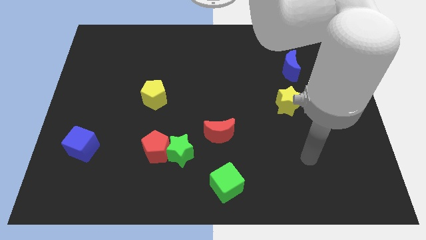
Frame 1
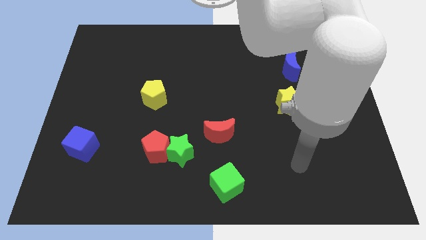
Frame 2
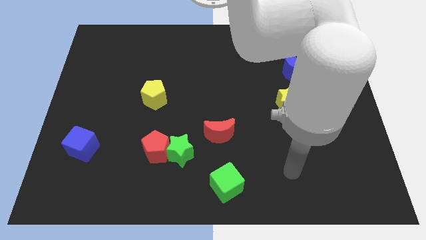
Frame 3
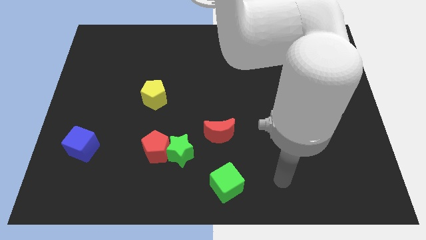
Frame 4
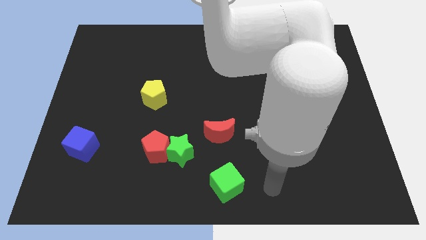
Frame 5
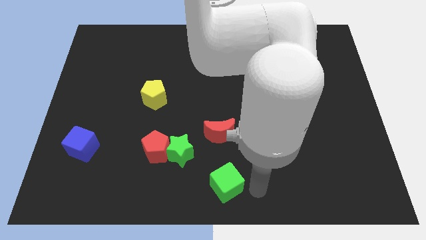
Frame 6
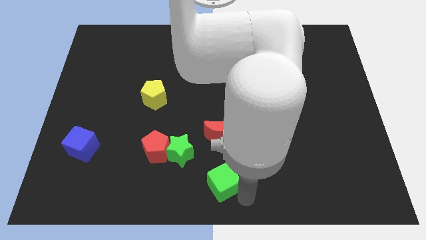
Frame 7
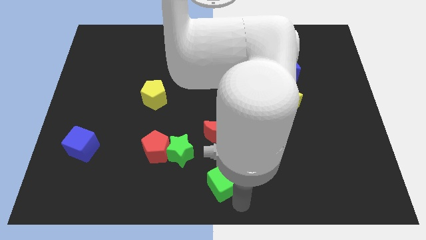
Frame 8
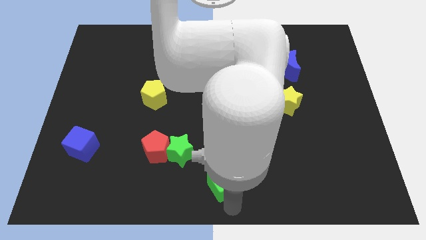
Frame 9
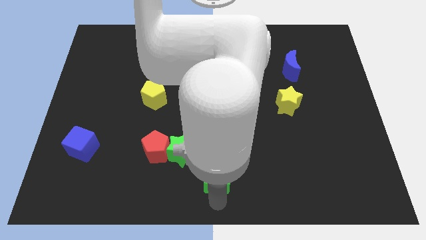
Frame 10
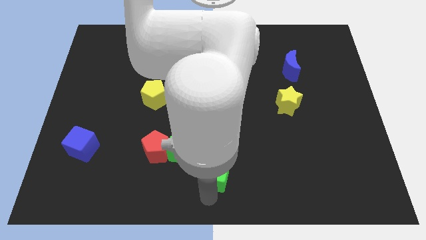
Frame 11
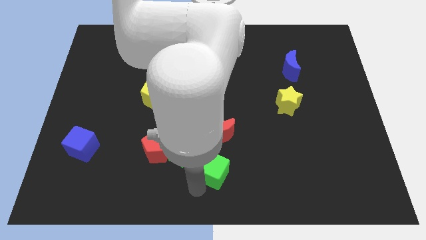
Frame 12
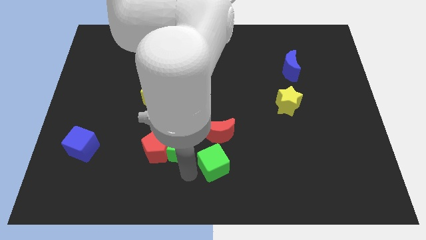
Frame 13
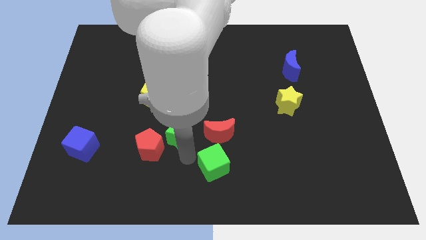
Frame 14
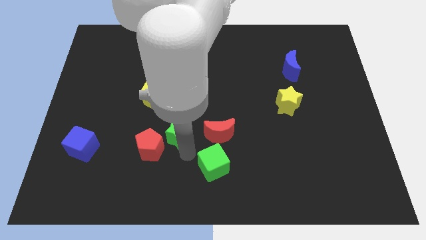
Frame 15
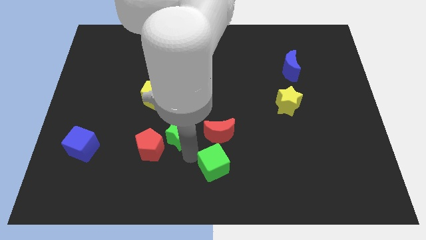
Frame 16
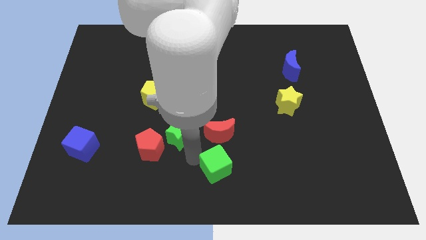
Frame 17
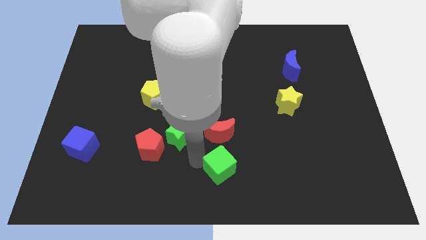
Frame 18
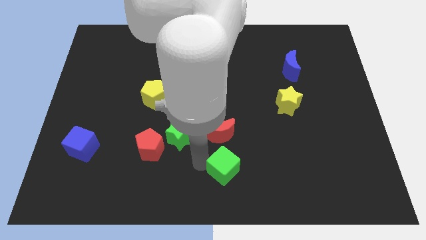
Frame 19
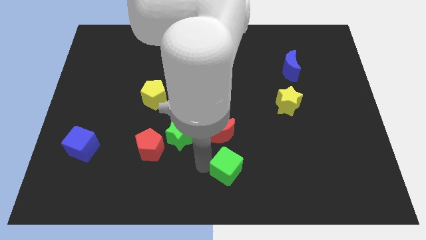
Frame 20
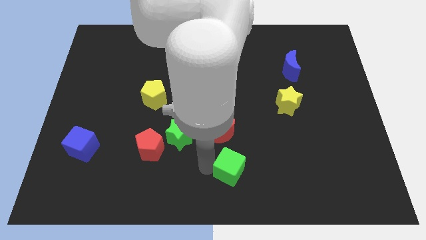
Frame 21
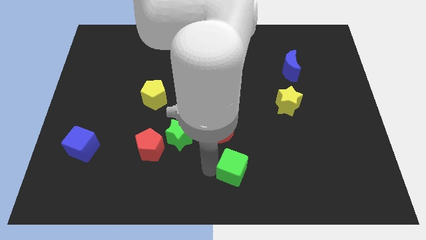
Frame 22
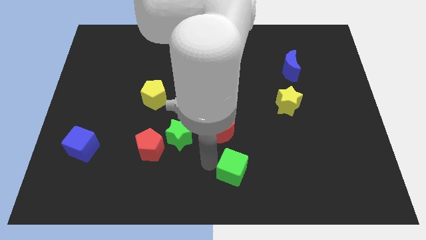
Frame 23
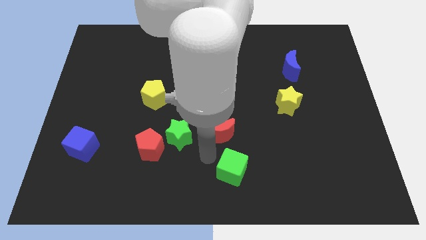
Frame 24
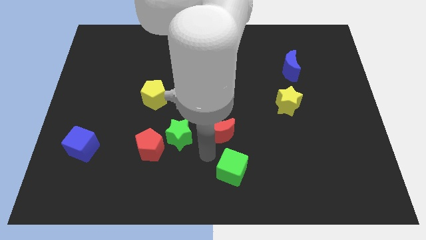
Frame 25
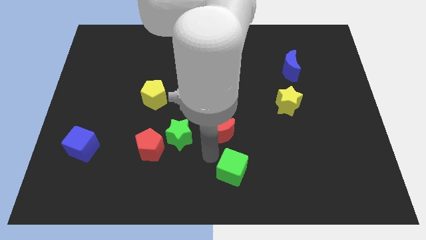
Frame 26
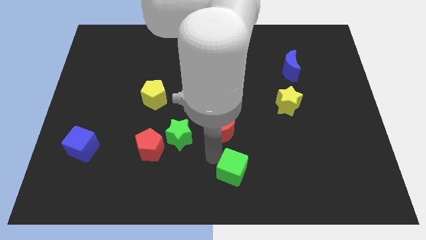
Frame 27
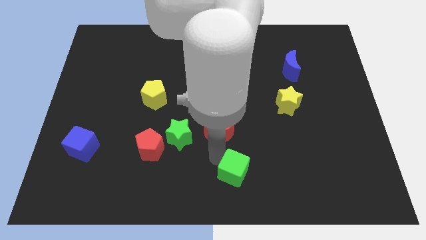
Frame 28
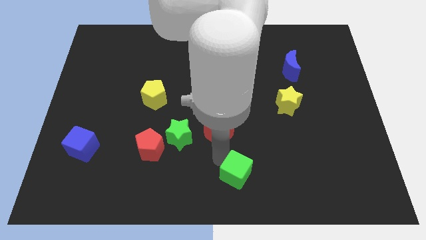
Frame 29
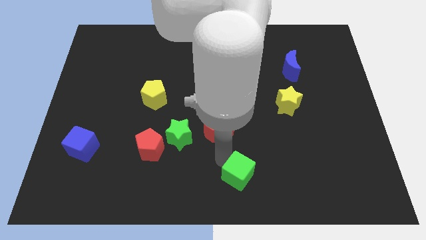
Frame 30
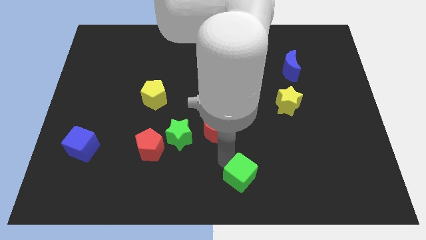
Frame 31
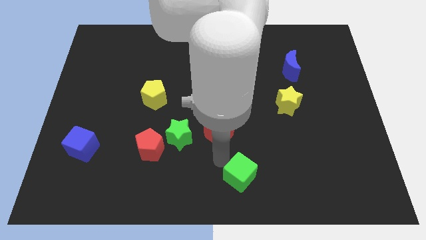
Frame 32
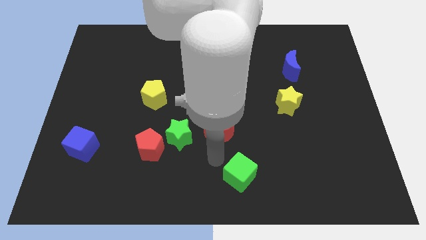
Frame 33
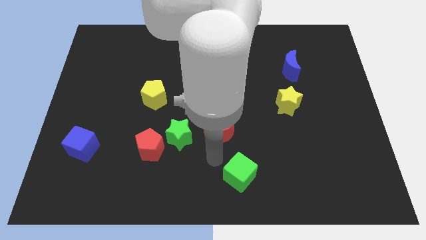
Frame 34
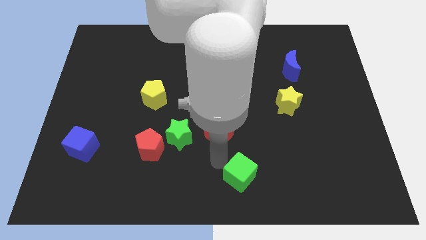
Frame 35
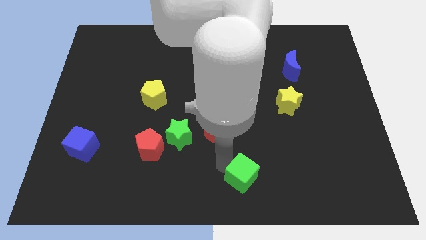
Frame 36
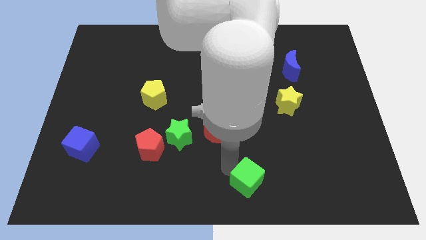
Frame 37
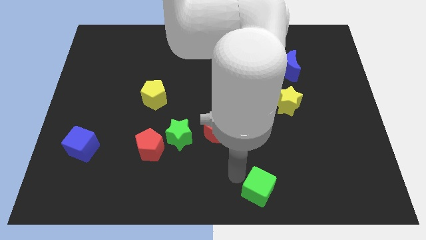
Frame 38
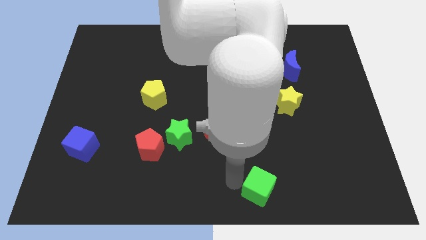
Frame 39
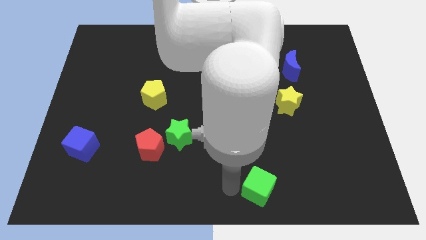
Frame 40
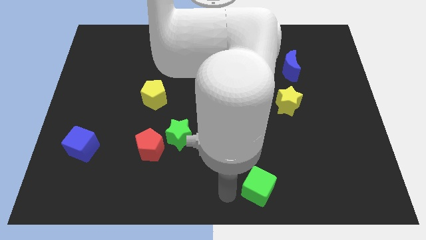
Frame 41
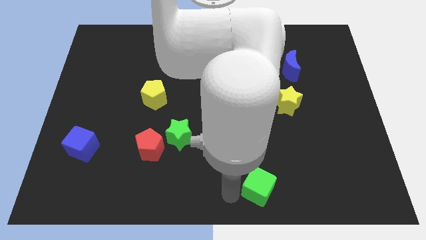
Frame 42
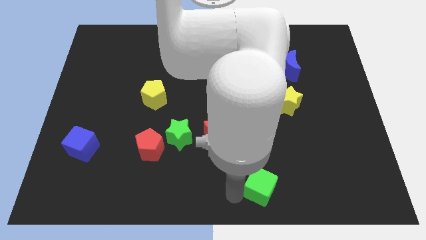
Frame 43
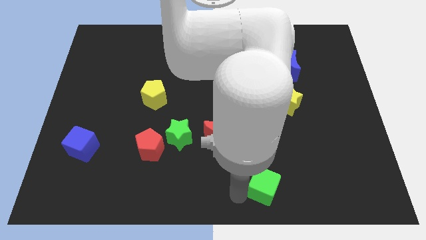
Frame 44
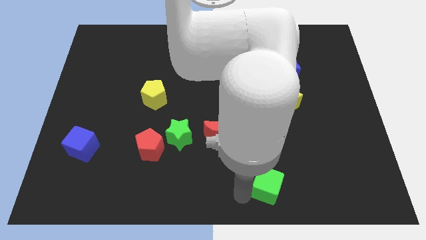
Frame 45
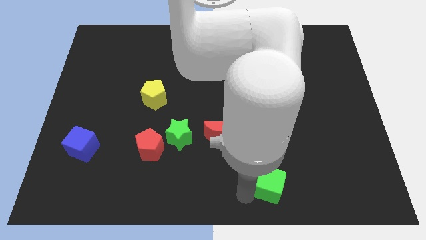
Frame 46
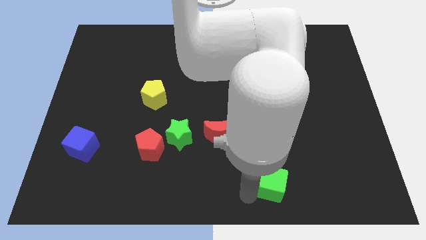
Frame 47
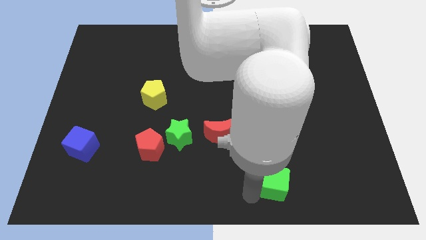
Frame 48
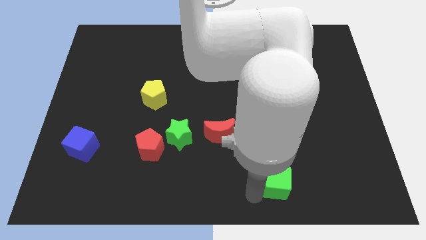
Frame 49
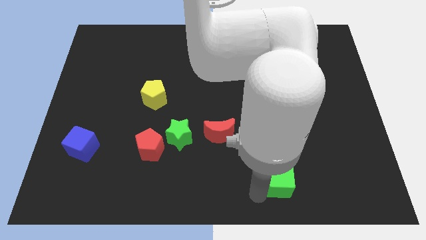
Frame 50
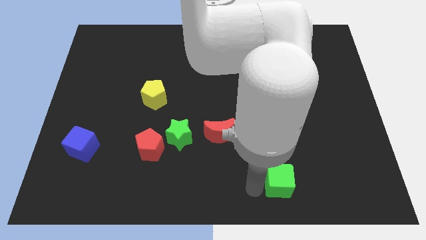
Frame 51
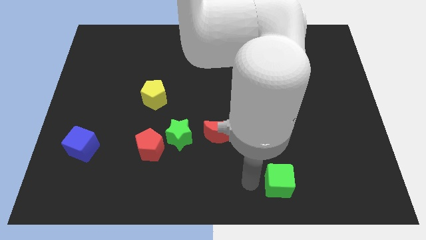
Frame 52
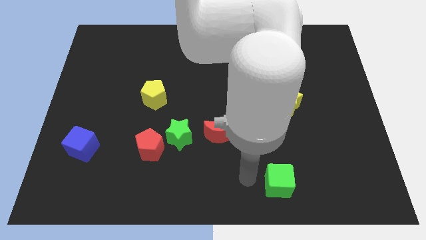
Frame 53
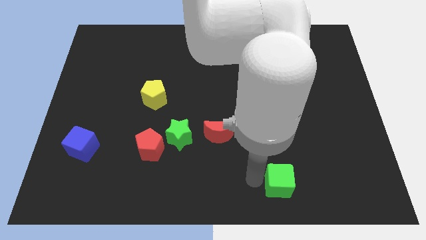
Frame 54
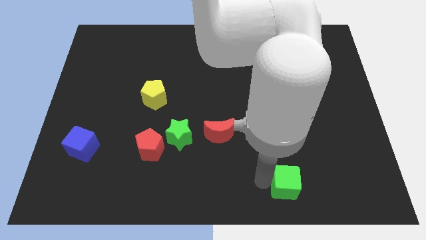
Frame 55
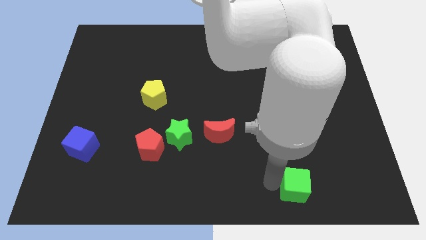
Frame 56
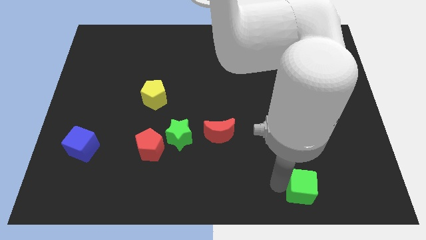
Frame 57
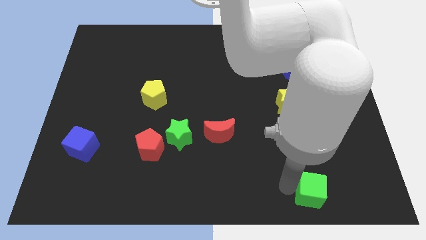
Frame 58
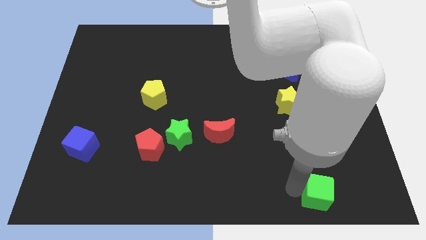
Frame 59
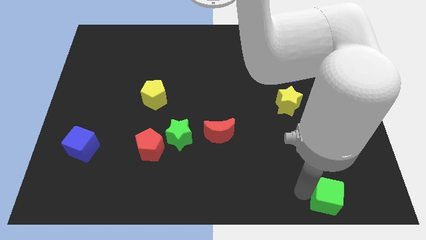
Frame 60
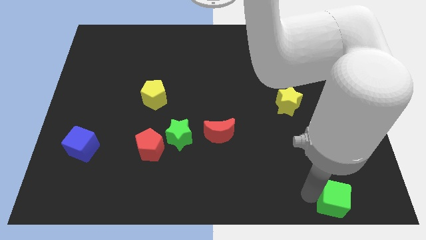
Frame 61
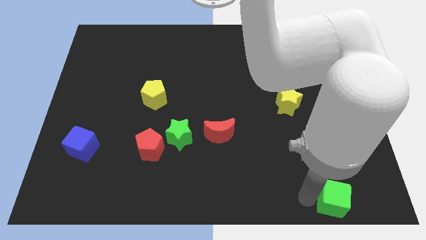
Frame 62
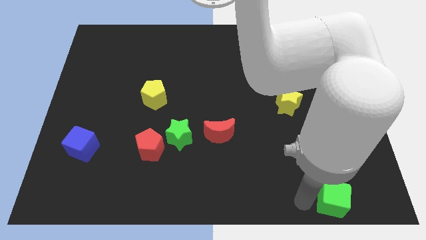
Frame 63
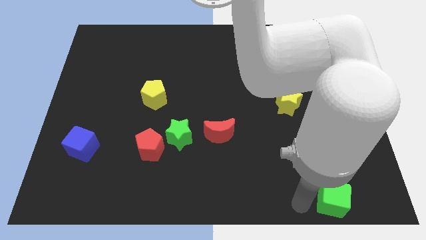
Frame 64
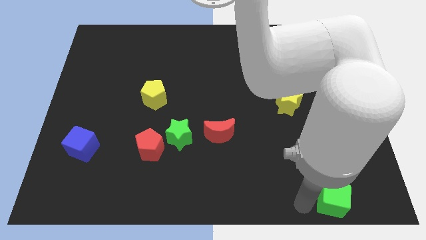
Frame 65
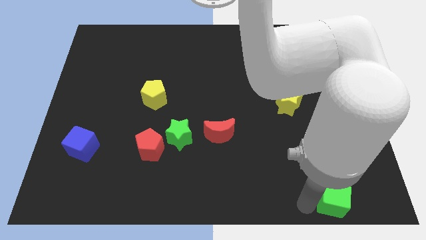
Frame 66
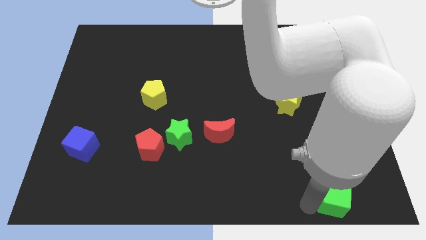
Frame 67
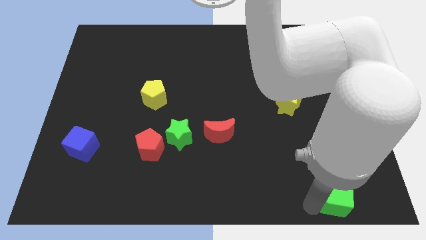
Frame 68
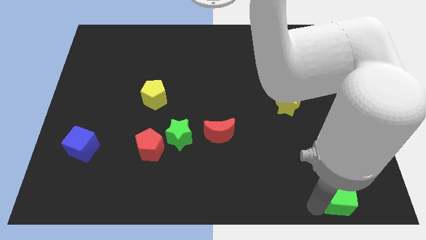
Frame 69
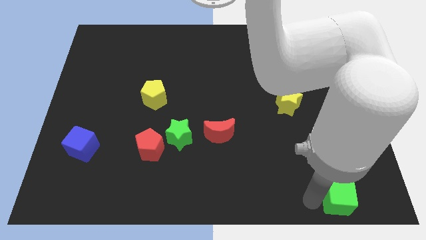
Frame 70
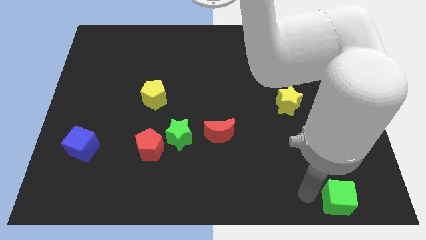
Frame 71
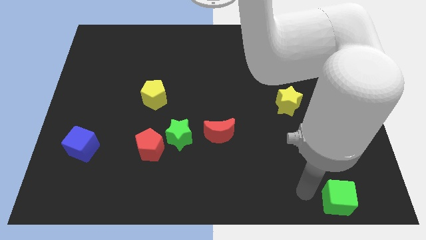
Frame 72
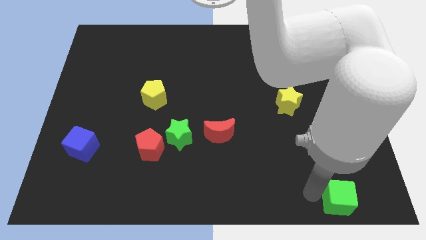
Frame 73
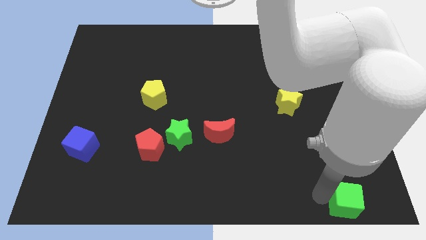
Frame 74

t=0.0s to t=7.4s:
push the green cube to the lower right corner
